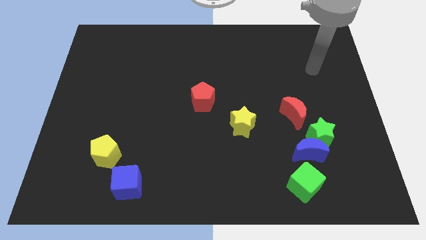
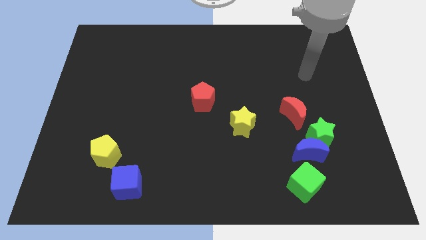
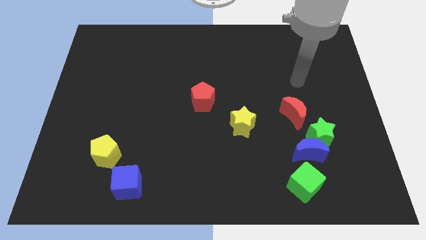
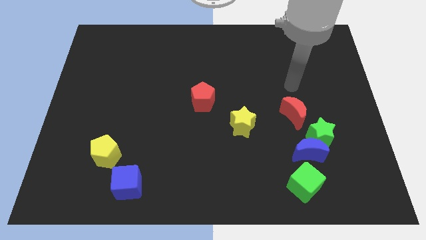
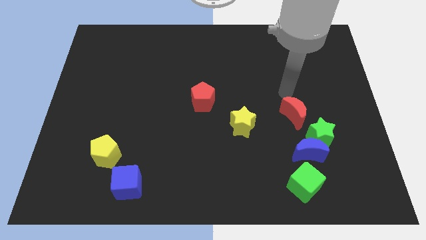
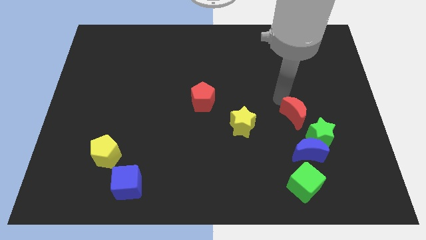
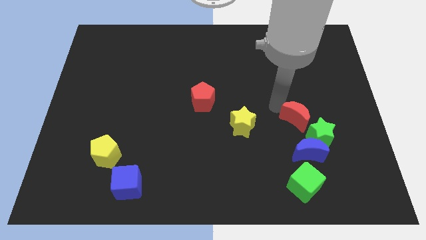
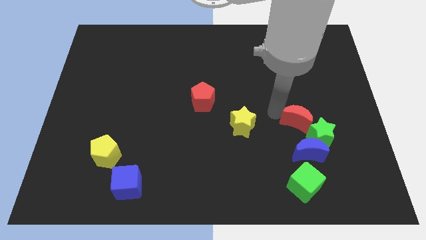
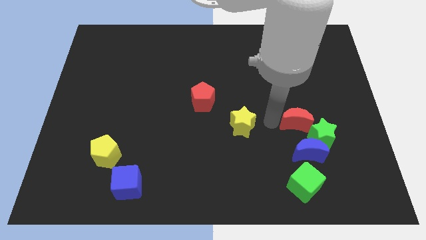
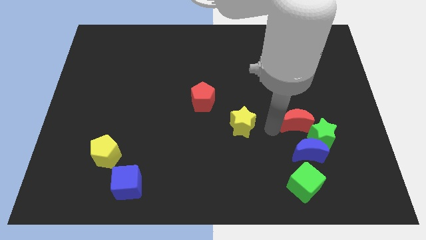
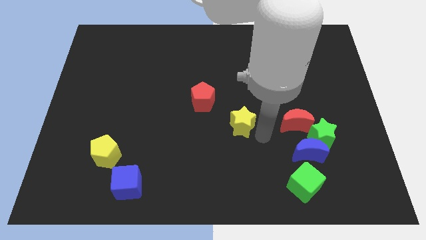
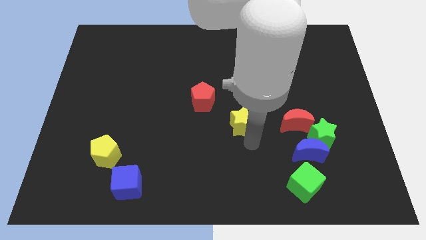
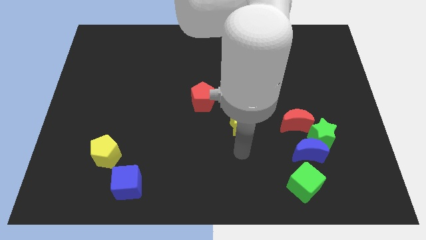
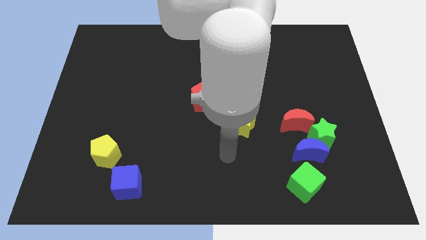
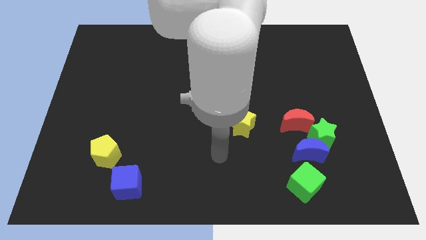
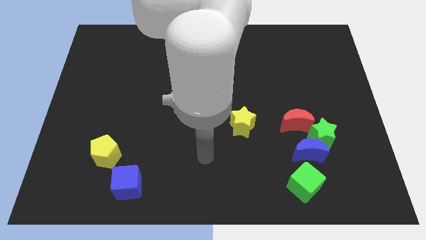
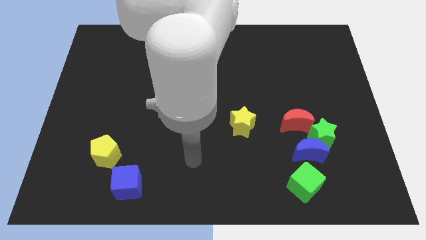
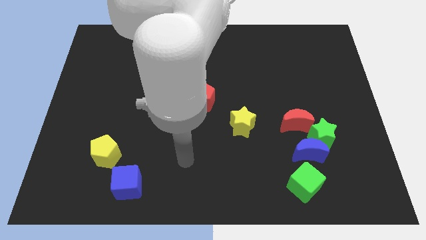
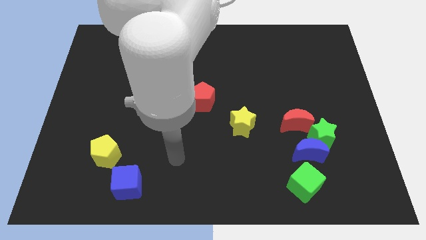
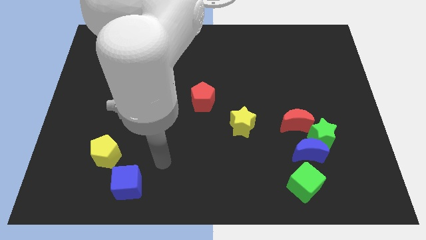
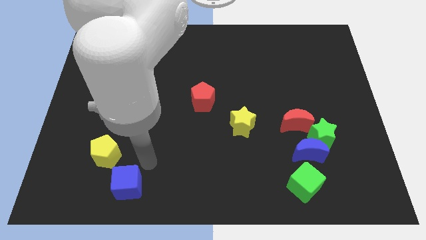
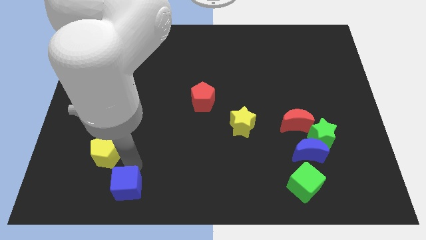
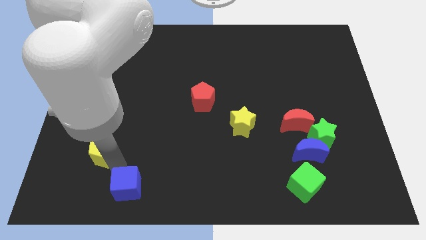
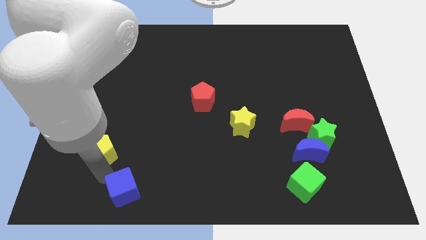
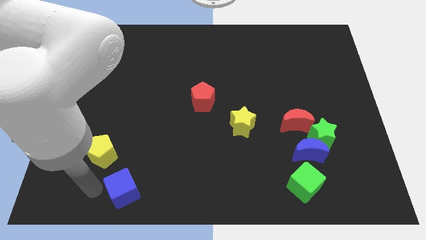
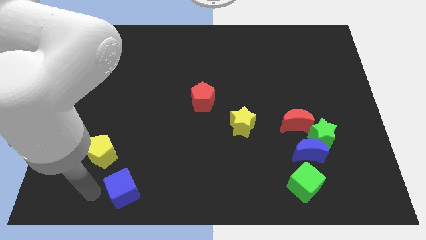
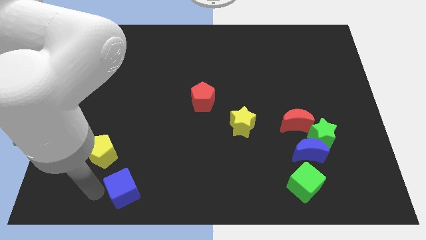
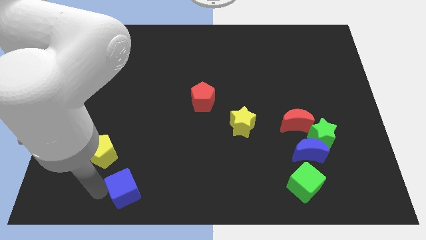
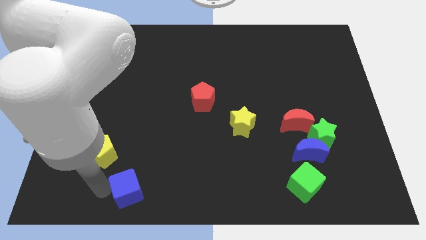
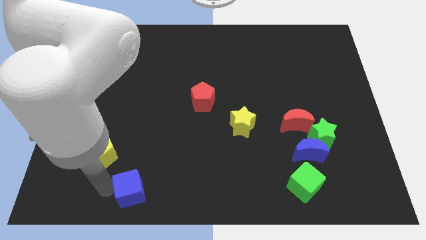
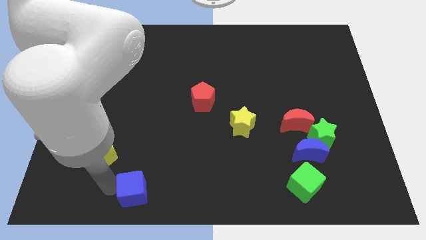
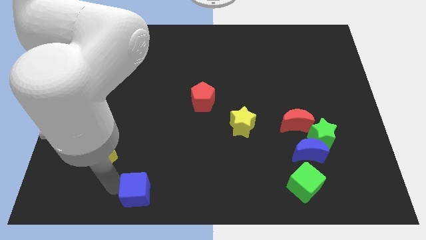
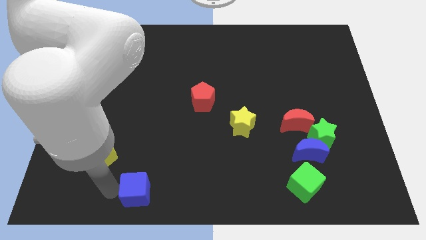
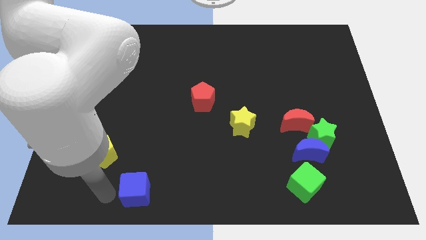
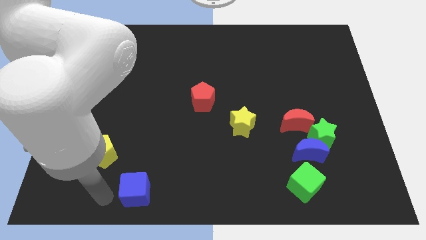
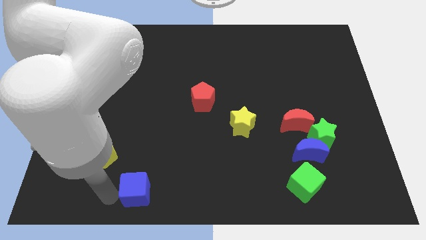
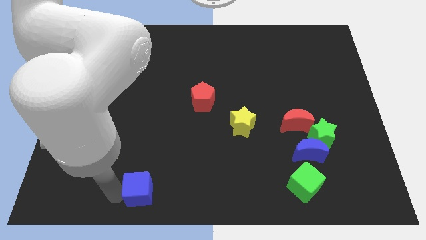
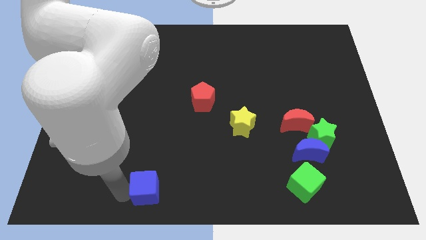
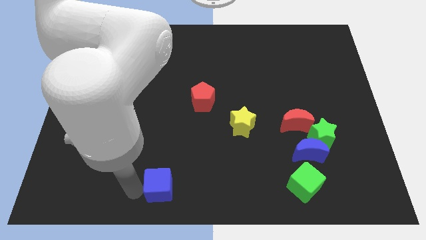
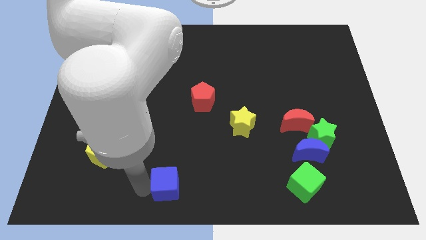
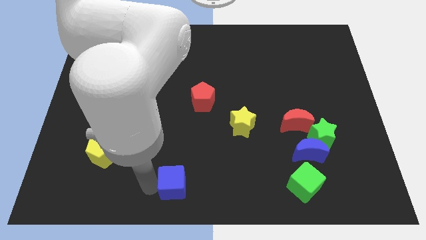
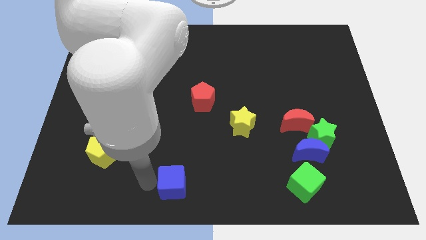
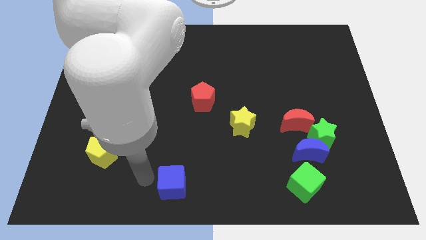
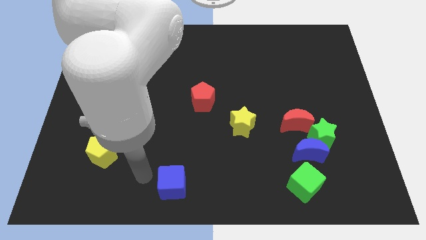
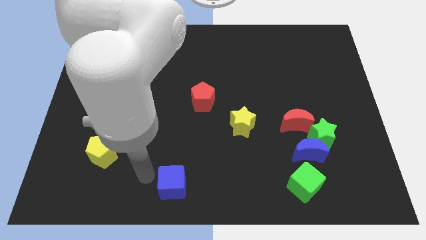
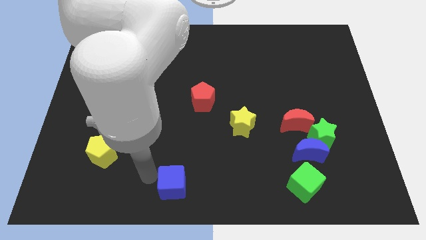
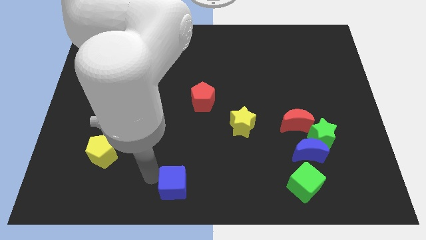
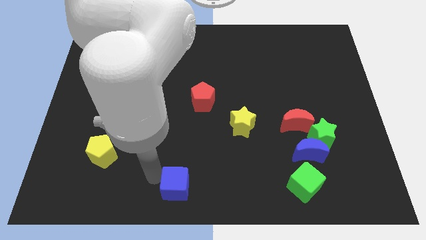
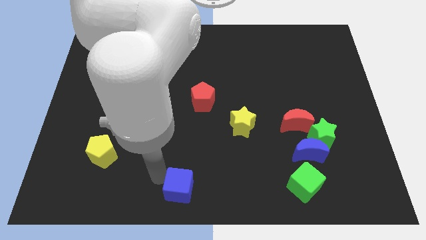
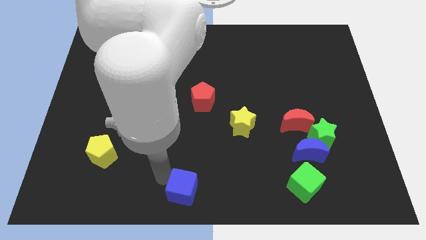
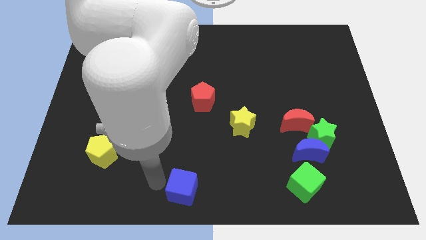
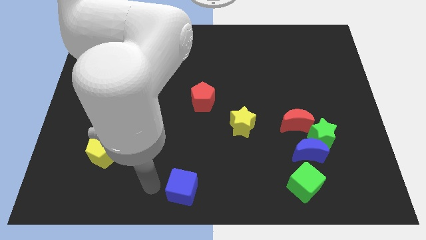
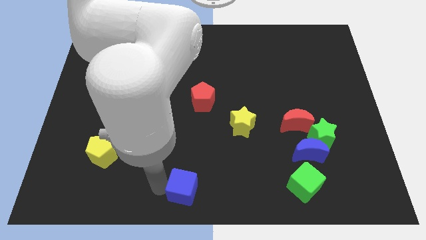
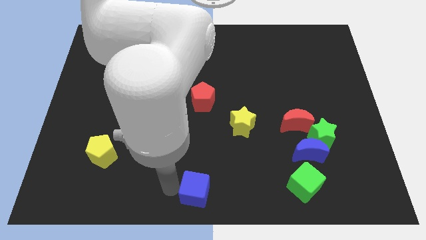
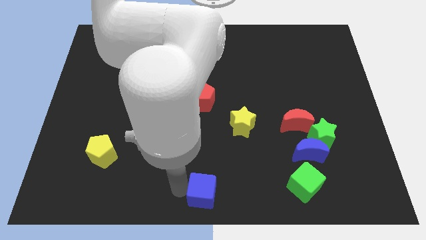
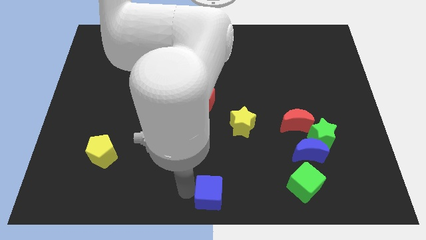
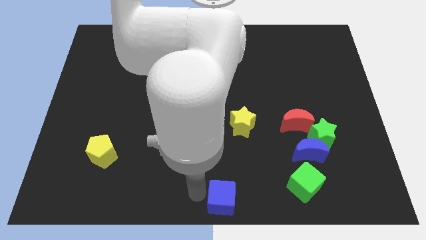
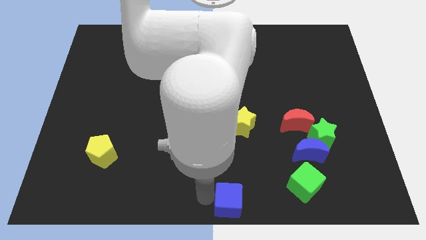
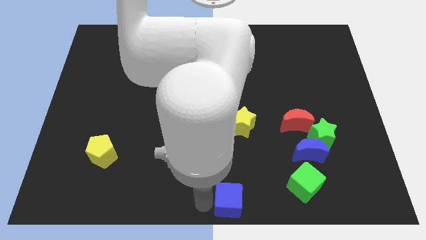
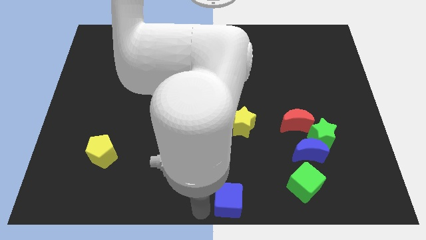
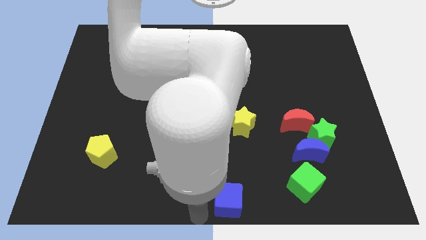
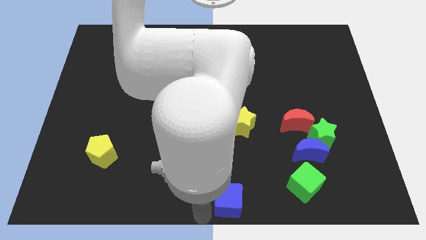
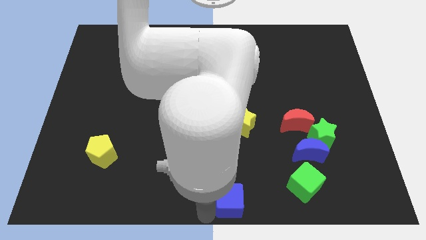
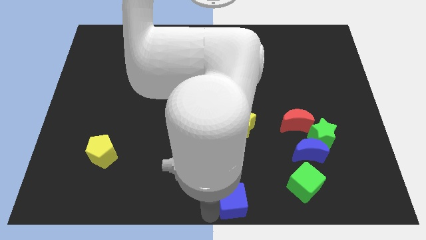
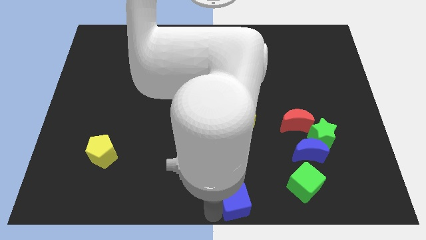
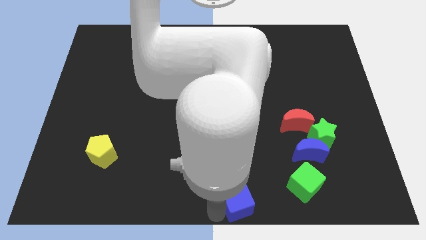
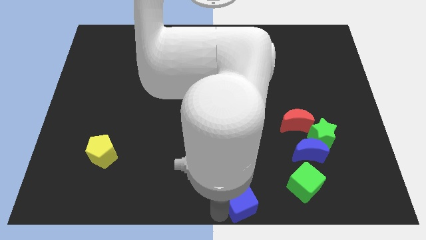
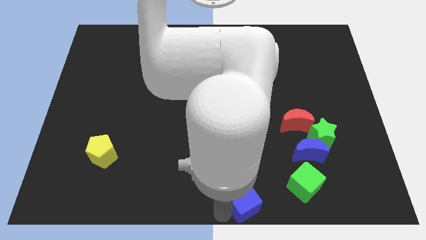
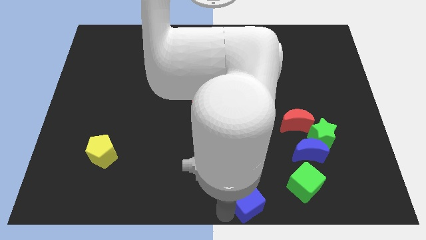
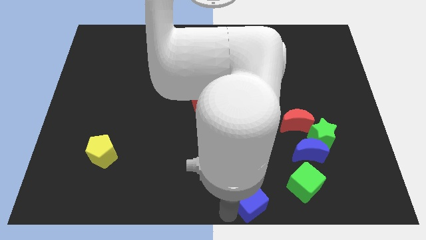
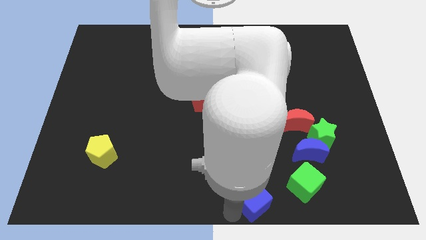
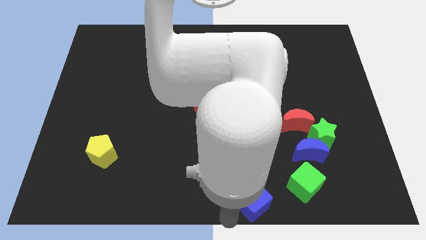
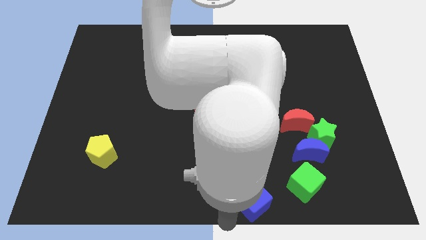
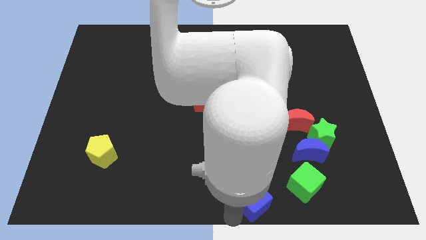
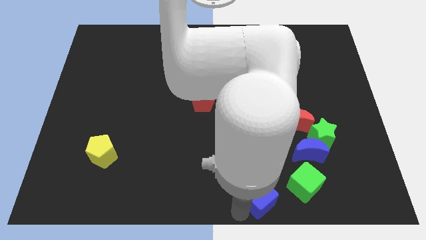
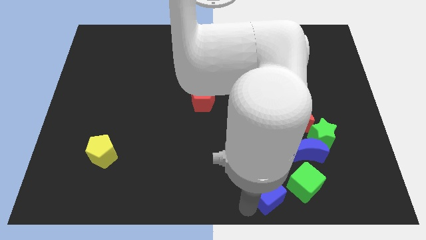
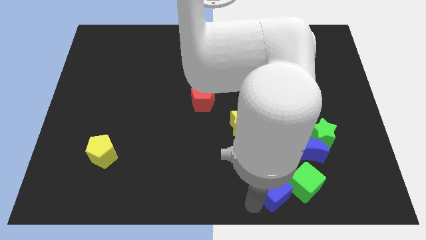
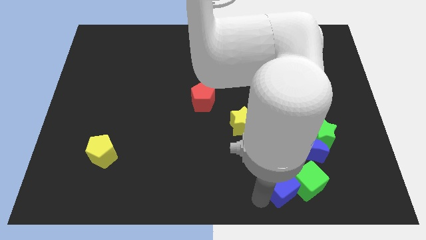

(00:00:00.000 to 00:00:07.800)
put the blue cube towards the green cube
